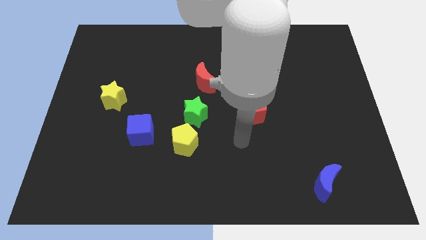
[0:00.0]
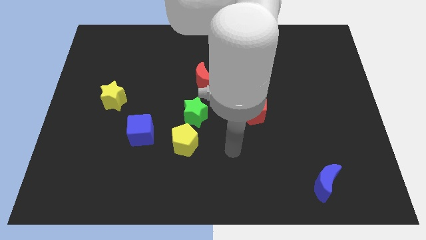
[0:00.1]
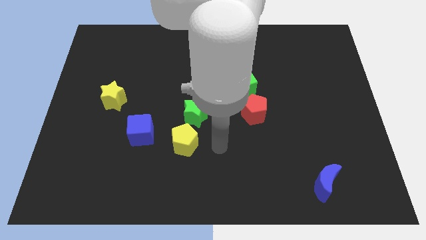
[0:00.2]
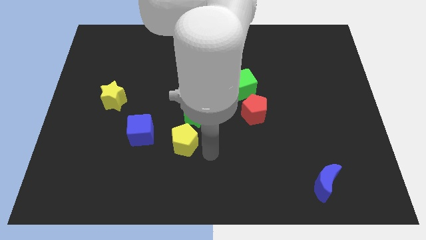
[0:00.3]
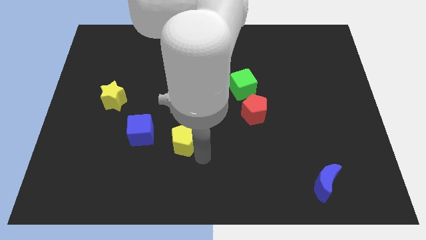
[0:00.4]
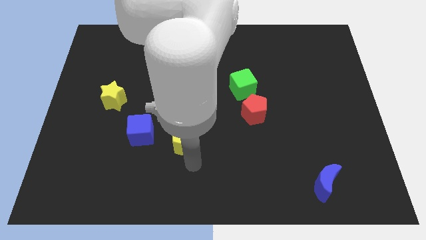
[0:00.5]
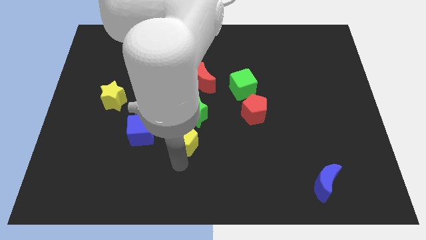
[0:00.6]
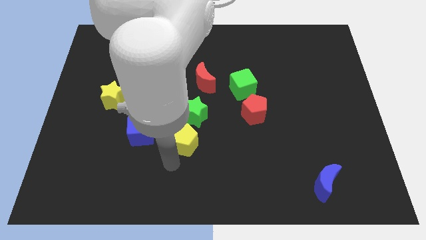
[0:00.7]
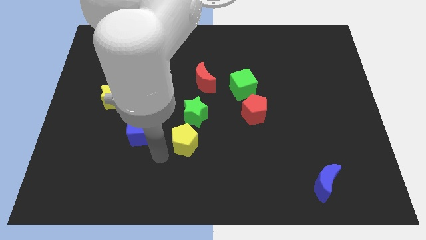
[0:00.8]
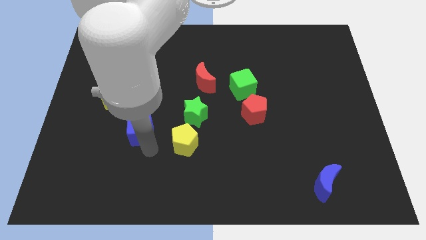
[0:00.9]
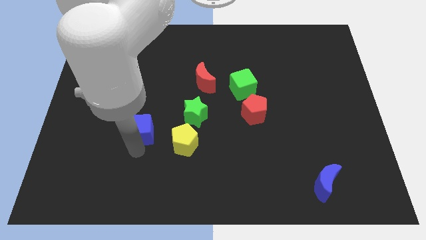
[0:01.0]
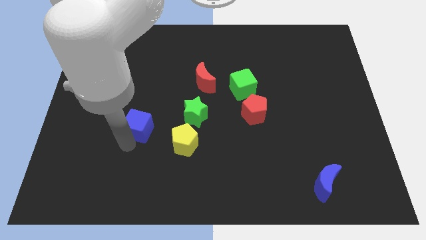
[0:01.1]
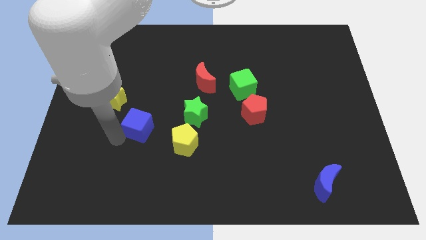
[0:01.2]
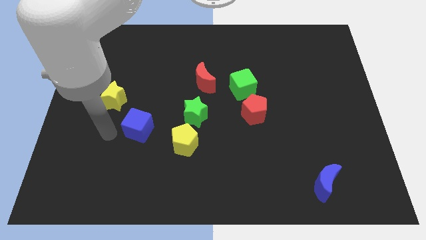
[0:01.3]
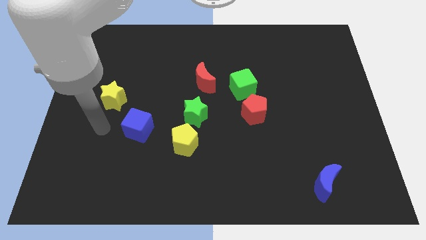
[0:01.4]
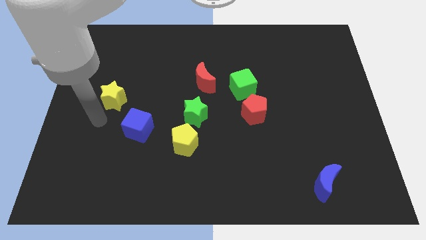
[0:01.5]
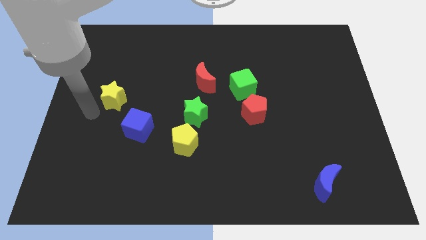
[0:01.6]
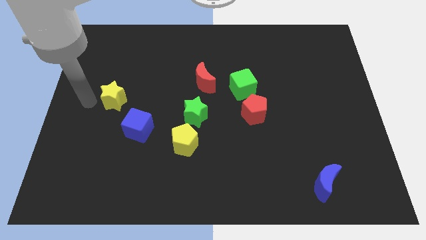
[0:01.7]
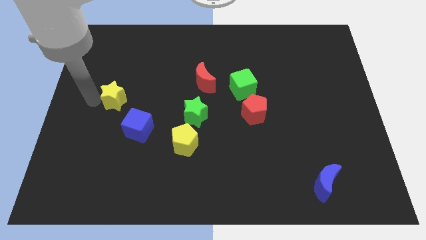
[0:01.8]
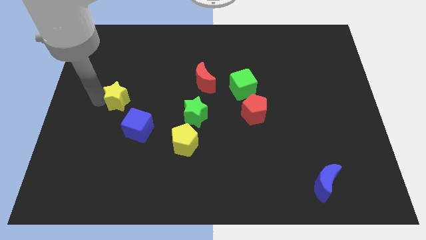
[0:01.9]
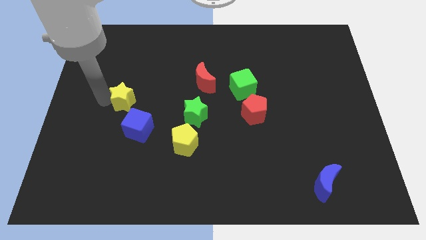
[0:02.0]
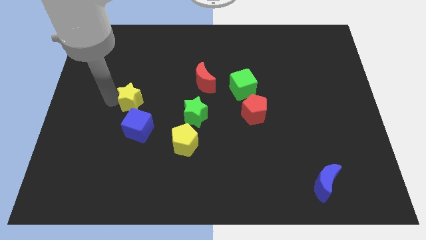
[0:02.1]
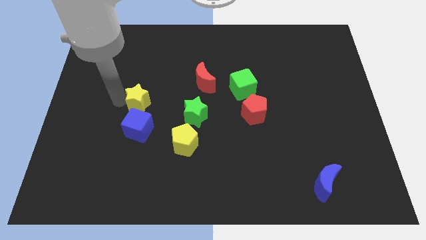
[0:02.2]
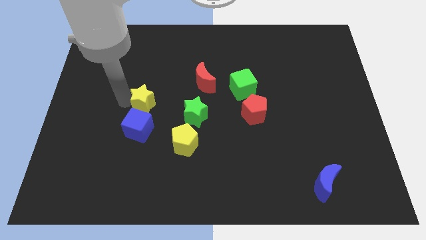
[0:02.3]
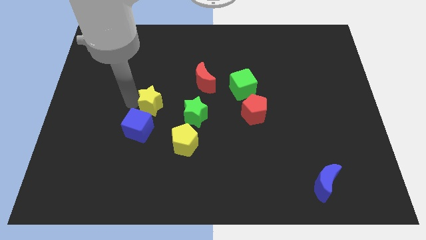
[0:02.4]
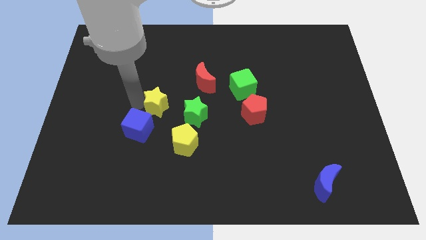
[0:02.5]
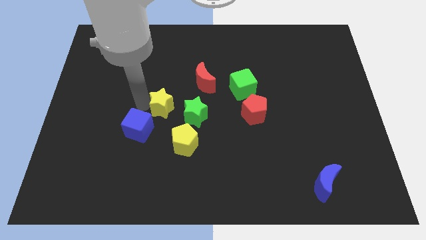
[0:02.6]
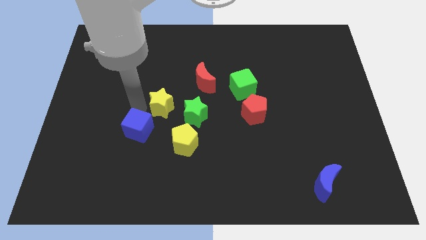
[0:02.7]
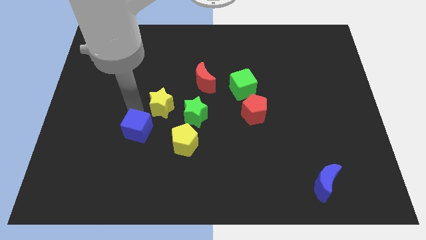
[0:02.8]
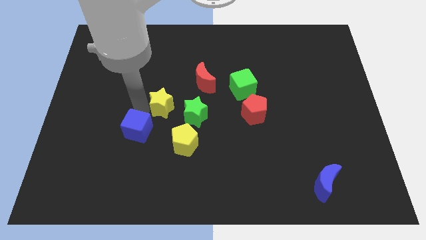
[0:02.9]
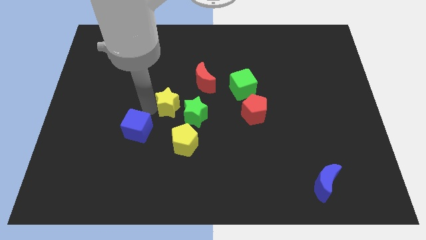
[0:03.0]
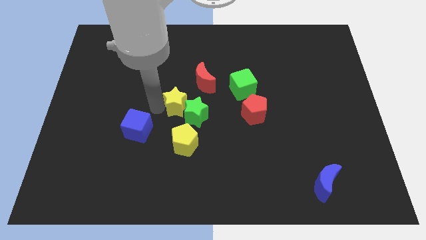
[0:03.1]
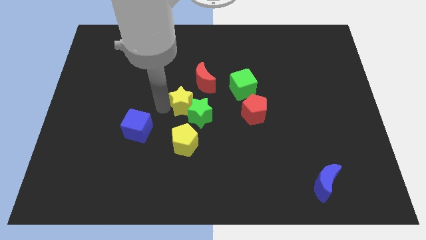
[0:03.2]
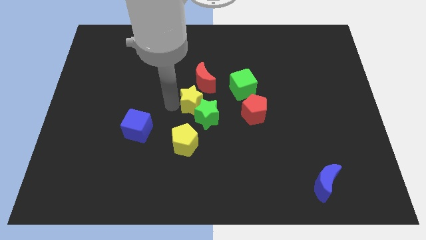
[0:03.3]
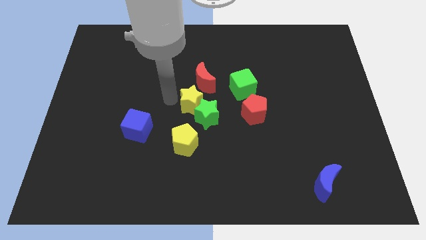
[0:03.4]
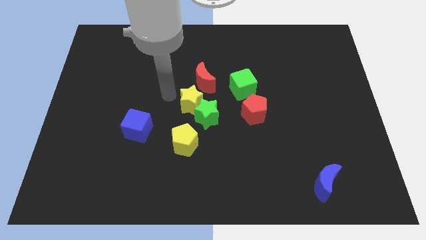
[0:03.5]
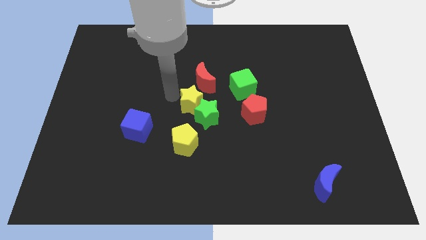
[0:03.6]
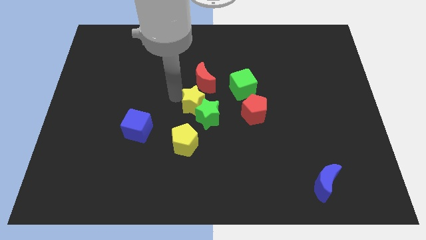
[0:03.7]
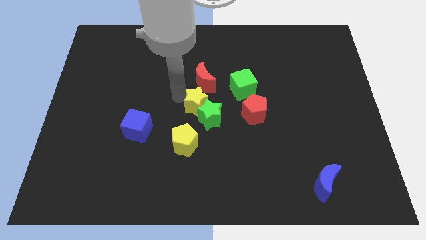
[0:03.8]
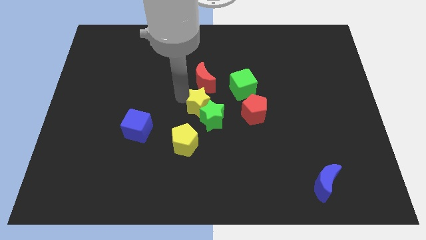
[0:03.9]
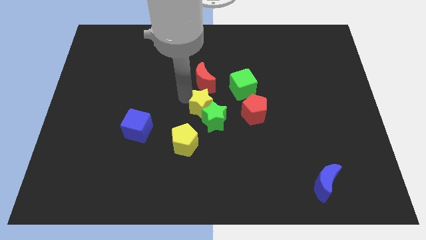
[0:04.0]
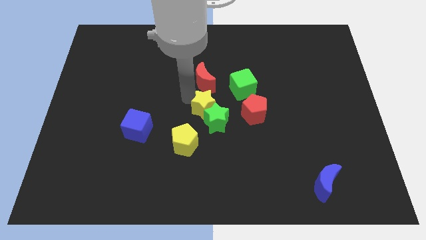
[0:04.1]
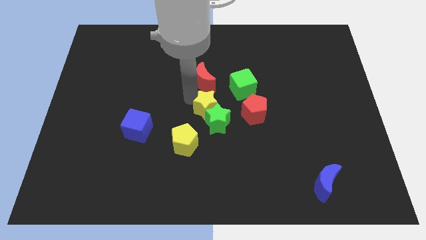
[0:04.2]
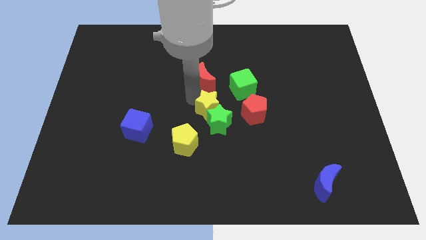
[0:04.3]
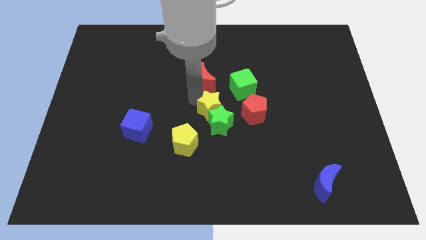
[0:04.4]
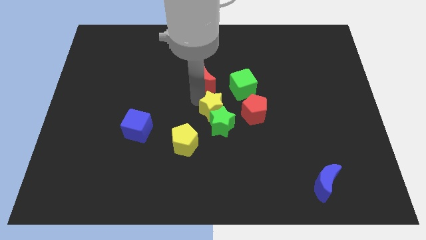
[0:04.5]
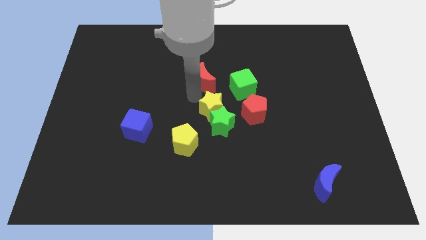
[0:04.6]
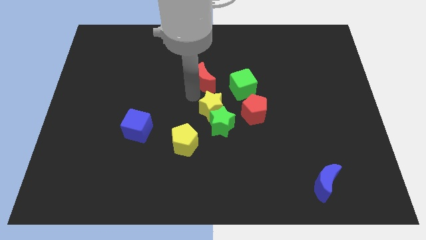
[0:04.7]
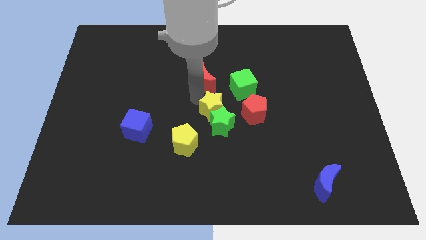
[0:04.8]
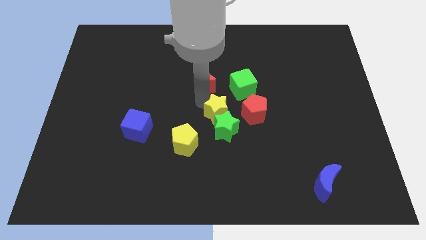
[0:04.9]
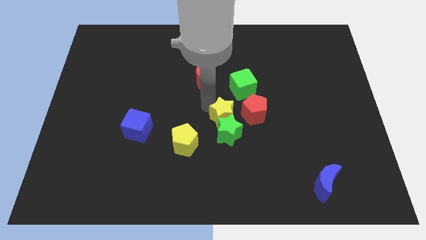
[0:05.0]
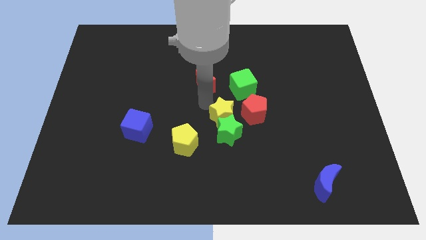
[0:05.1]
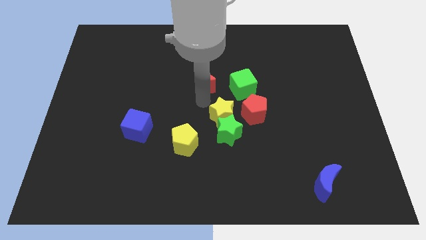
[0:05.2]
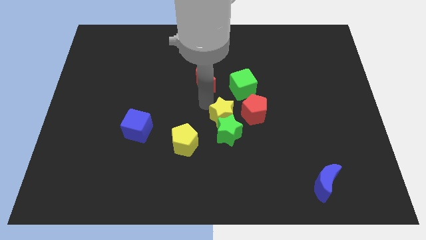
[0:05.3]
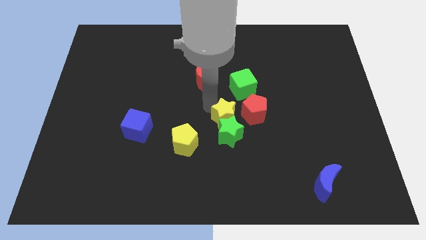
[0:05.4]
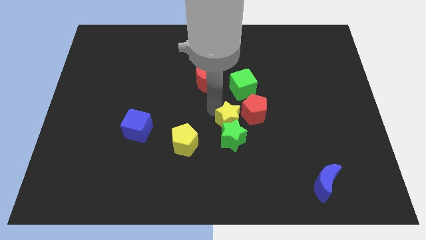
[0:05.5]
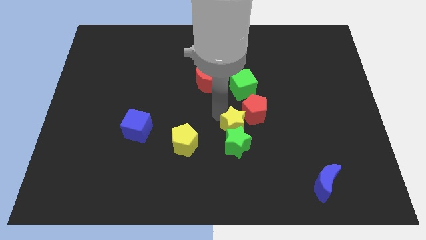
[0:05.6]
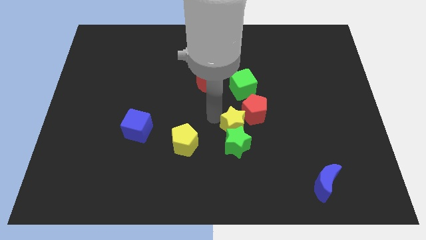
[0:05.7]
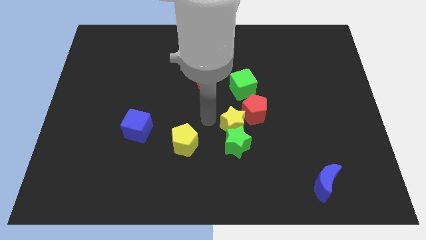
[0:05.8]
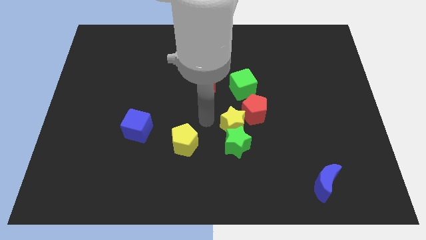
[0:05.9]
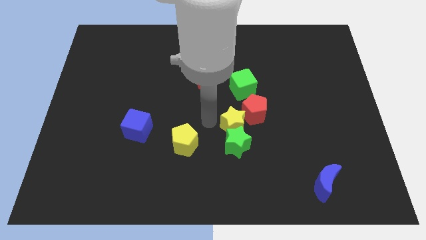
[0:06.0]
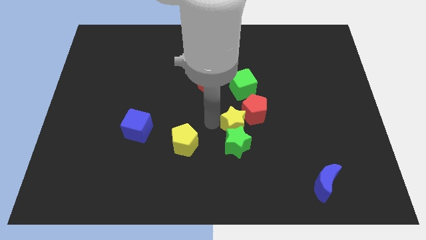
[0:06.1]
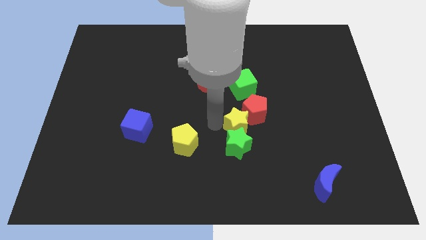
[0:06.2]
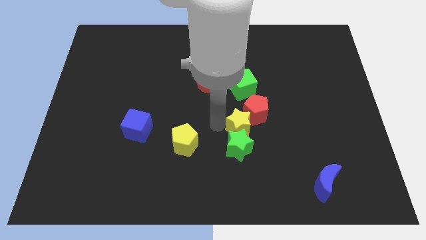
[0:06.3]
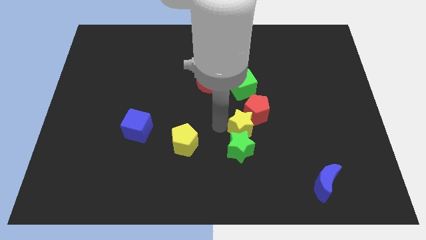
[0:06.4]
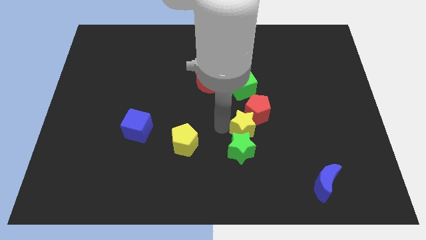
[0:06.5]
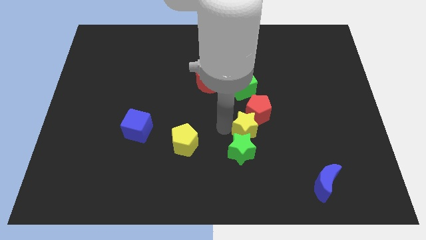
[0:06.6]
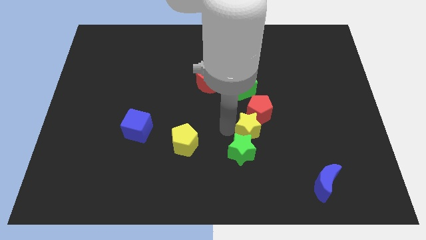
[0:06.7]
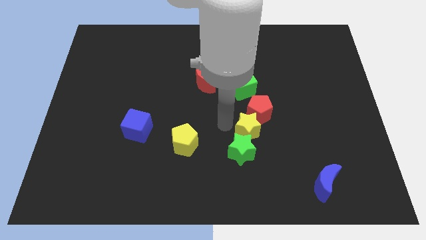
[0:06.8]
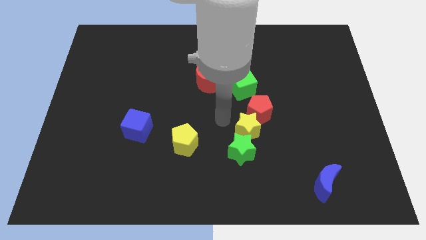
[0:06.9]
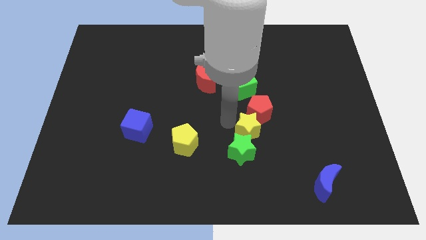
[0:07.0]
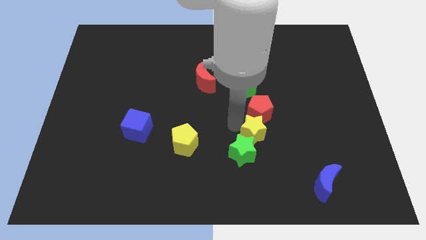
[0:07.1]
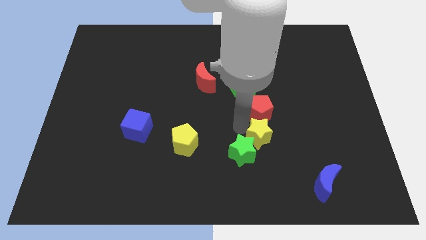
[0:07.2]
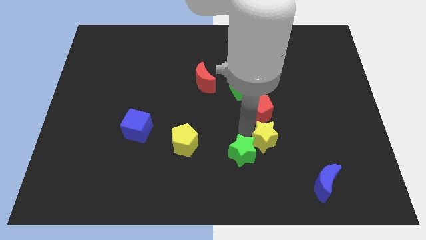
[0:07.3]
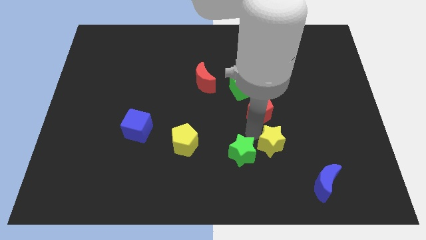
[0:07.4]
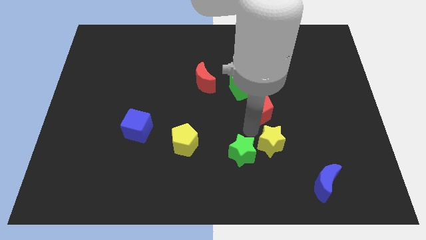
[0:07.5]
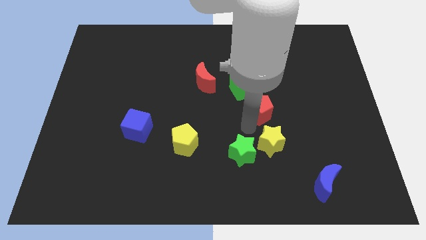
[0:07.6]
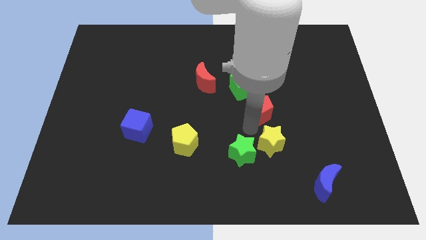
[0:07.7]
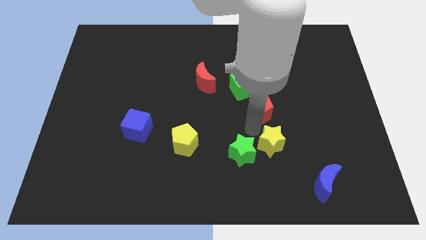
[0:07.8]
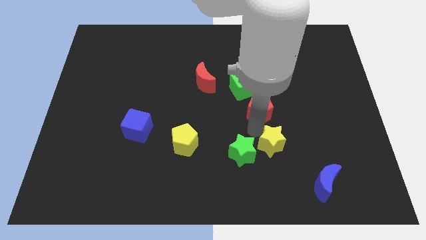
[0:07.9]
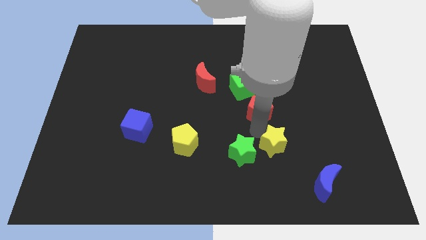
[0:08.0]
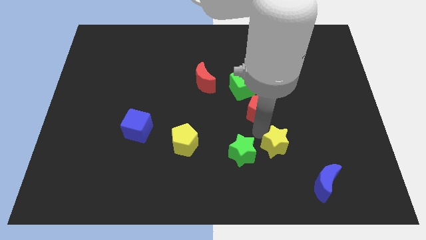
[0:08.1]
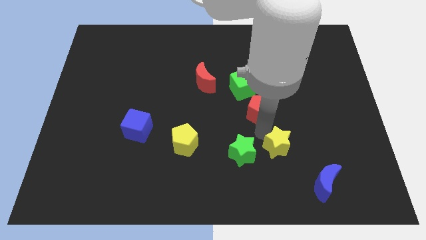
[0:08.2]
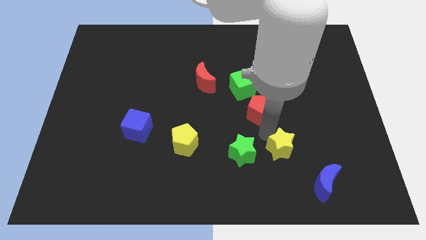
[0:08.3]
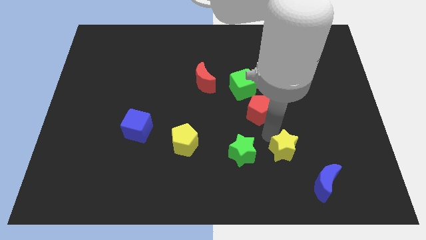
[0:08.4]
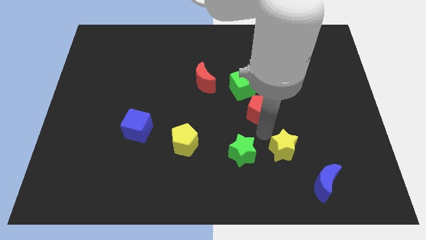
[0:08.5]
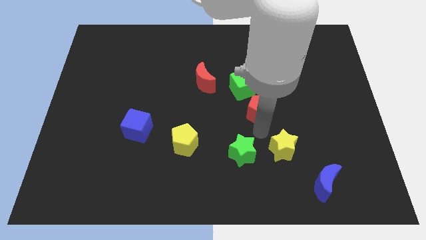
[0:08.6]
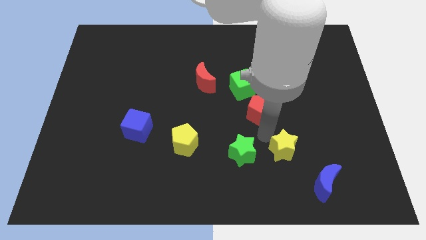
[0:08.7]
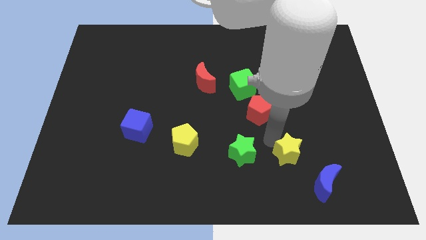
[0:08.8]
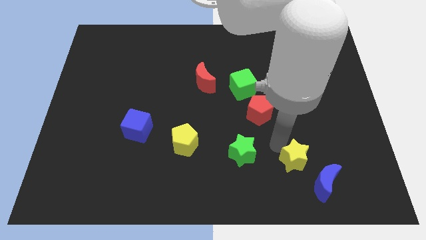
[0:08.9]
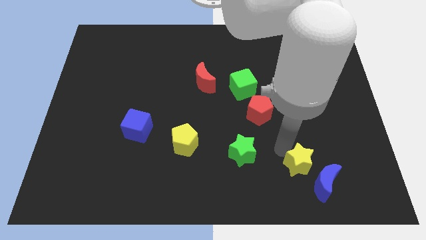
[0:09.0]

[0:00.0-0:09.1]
move the yellow star to the blue moon
